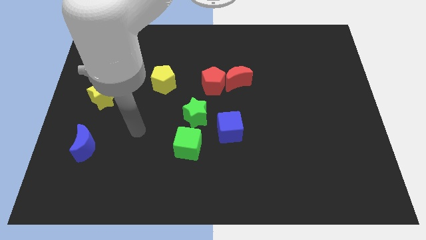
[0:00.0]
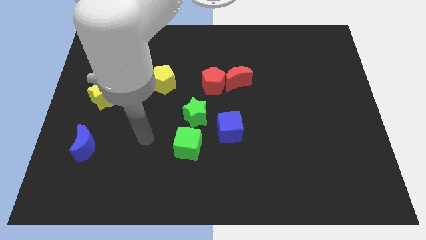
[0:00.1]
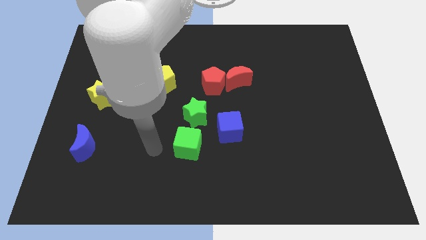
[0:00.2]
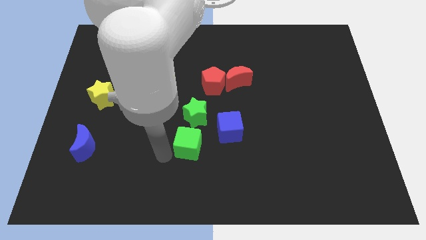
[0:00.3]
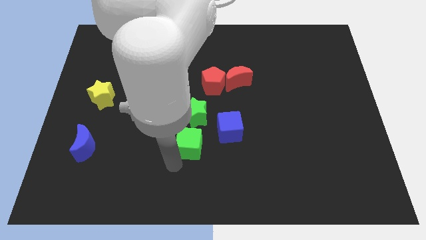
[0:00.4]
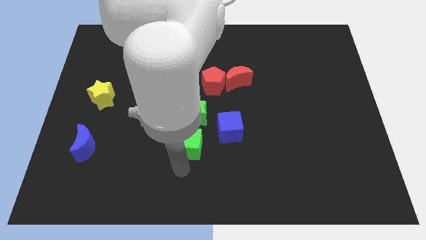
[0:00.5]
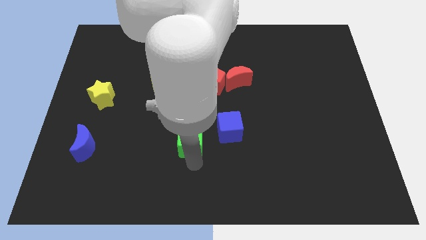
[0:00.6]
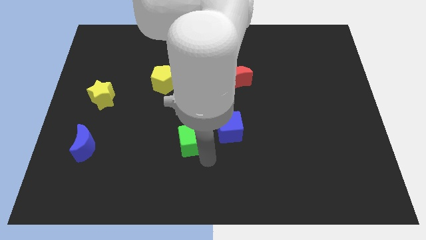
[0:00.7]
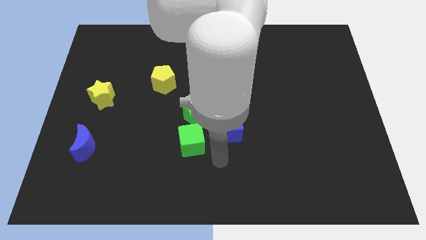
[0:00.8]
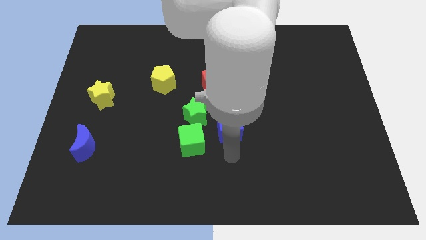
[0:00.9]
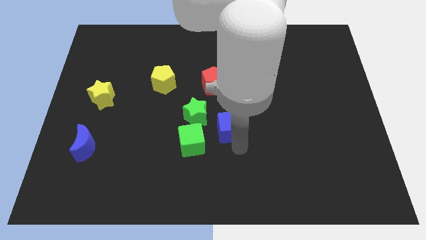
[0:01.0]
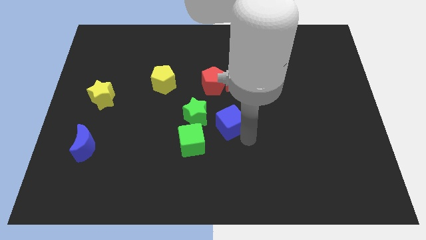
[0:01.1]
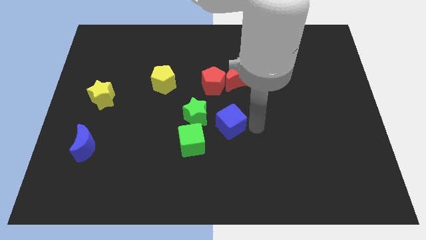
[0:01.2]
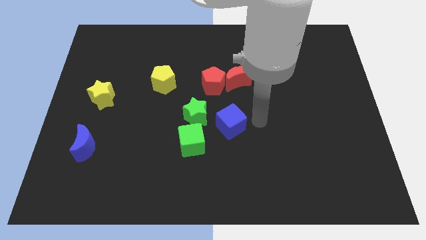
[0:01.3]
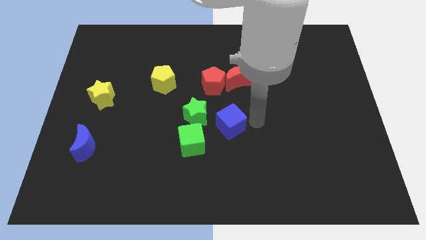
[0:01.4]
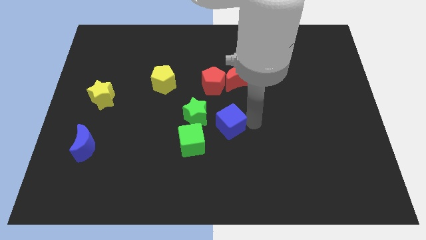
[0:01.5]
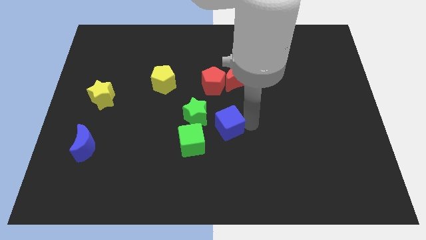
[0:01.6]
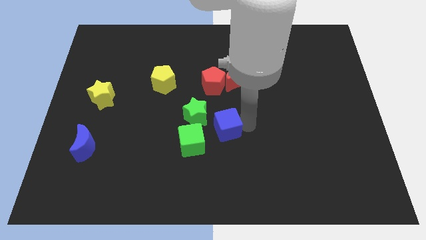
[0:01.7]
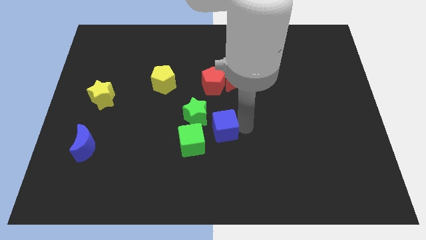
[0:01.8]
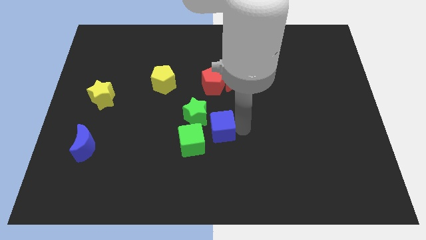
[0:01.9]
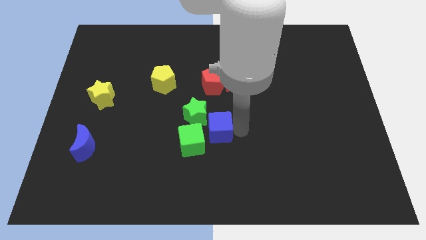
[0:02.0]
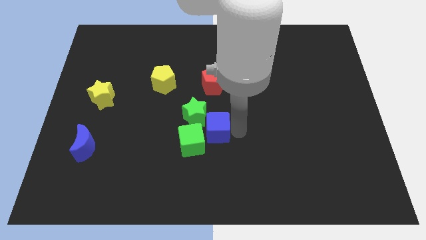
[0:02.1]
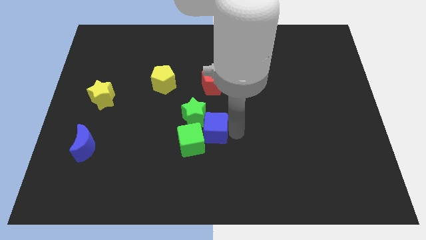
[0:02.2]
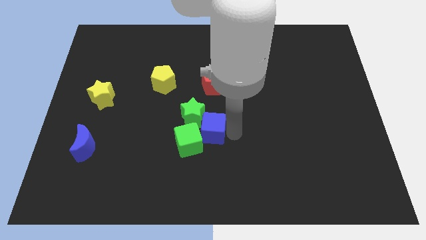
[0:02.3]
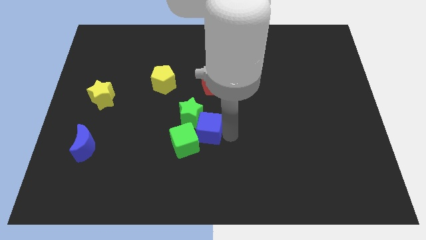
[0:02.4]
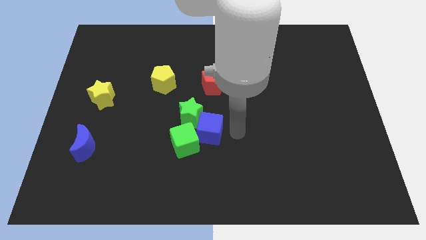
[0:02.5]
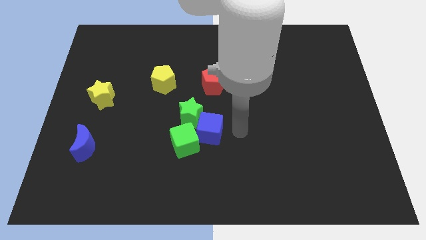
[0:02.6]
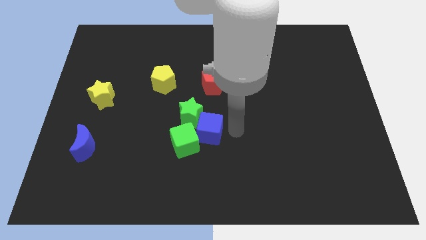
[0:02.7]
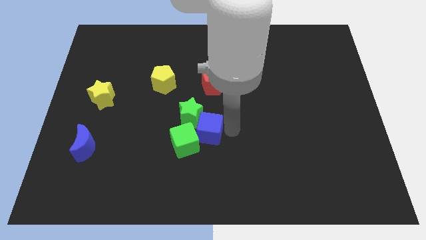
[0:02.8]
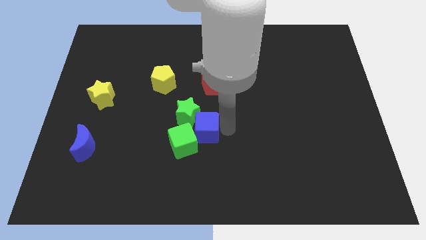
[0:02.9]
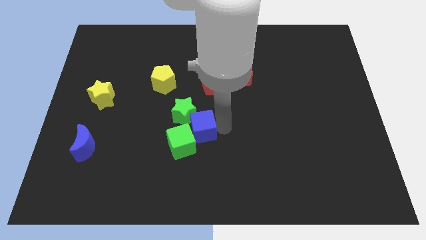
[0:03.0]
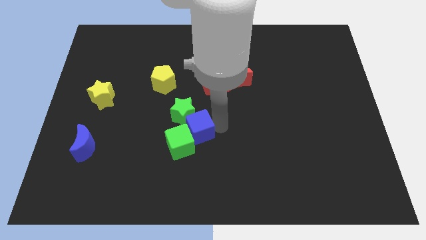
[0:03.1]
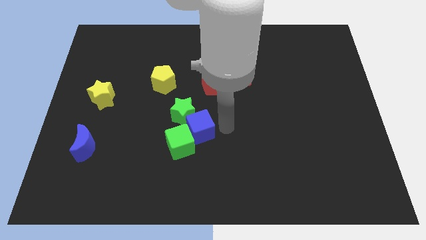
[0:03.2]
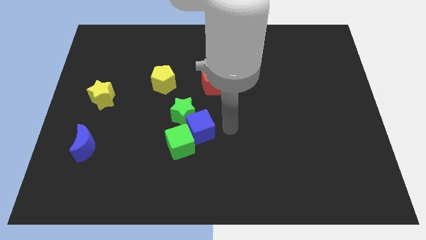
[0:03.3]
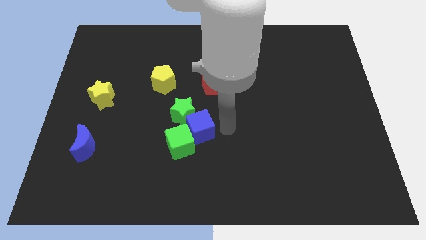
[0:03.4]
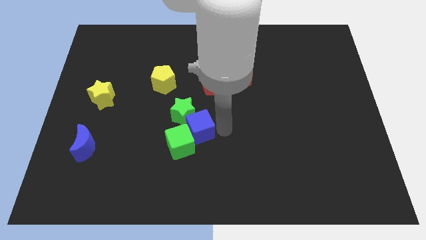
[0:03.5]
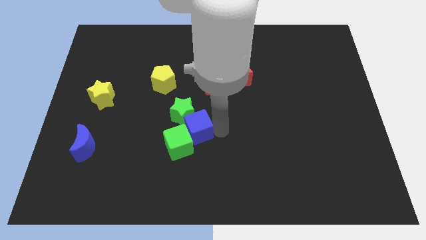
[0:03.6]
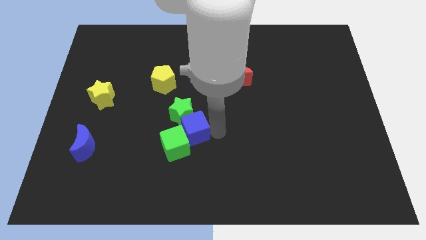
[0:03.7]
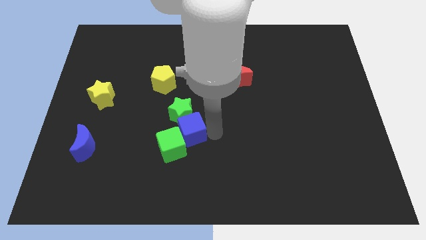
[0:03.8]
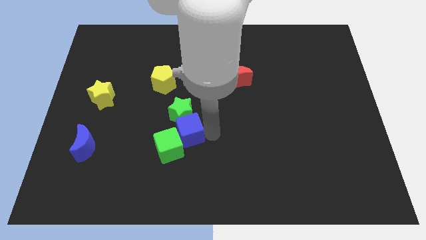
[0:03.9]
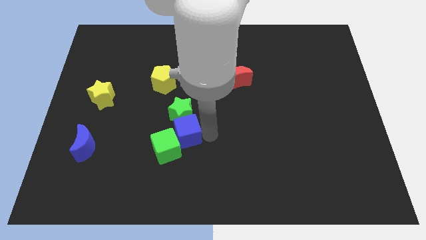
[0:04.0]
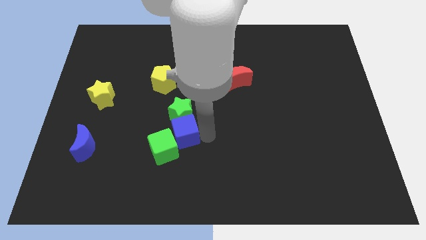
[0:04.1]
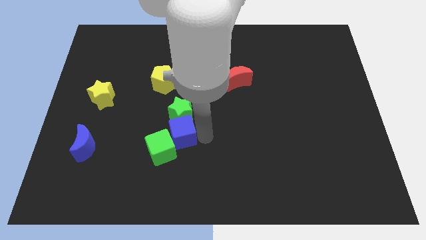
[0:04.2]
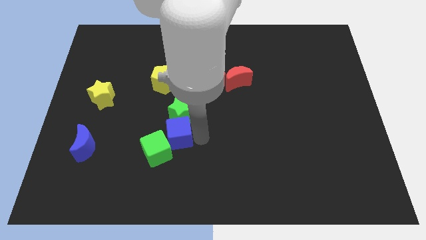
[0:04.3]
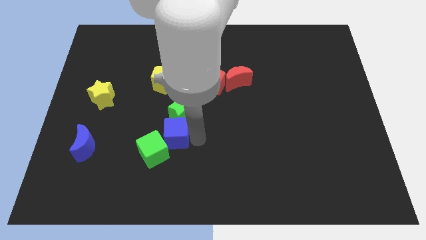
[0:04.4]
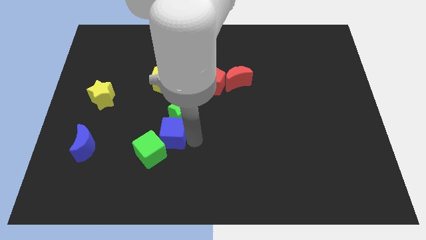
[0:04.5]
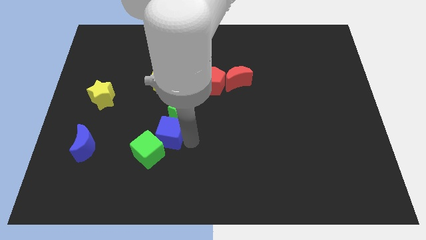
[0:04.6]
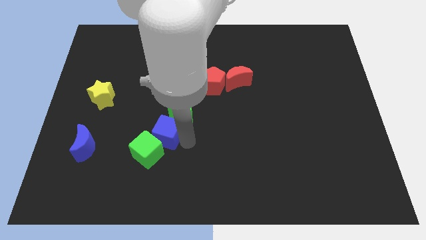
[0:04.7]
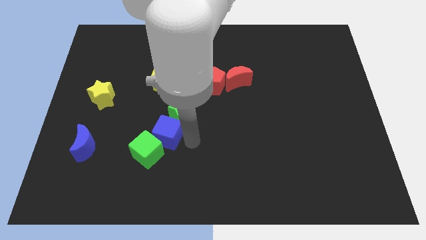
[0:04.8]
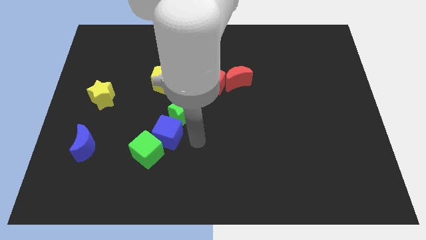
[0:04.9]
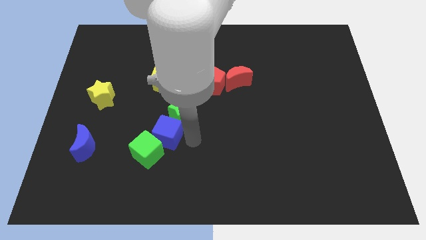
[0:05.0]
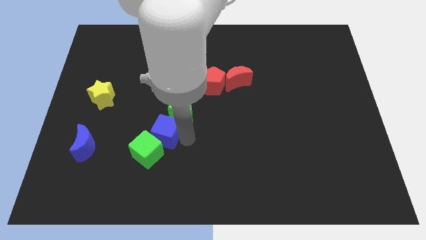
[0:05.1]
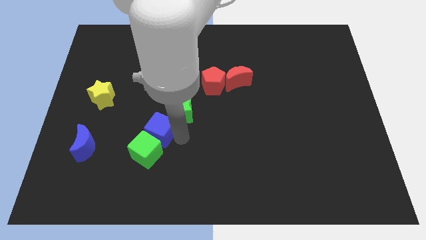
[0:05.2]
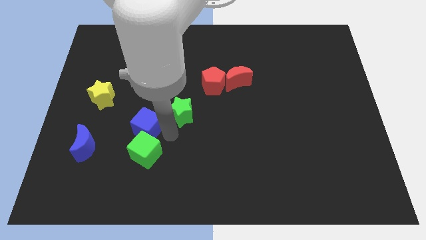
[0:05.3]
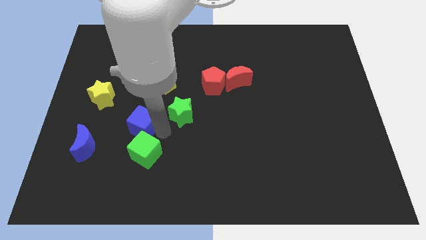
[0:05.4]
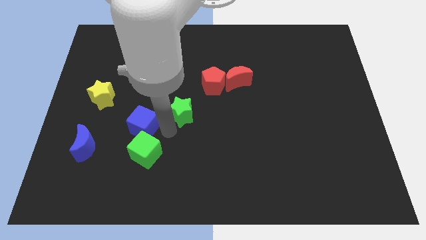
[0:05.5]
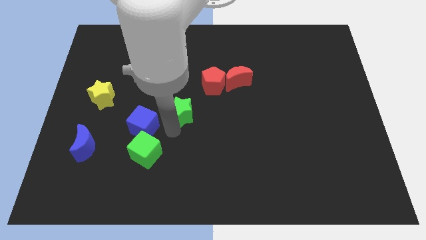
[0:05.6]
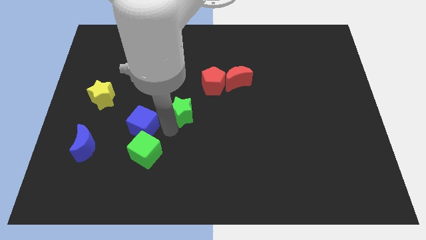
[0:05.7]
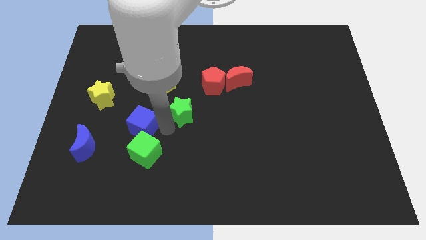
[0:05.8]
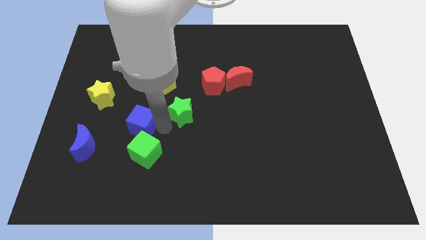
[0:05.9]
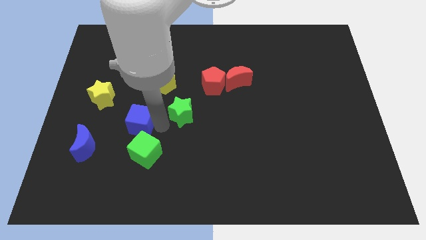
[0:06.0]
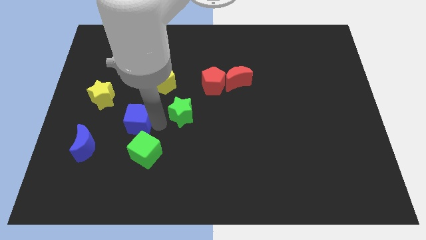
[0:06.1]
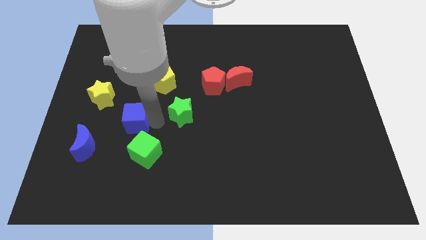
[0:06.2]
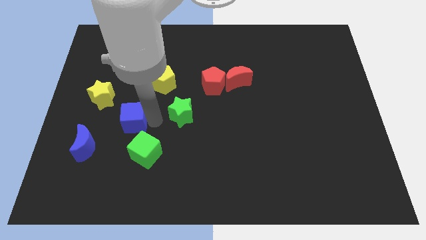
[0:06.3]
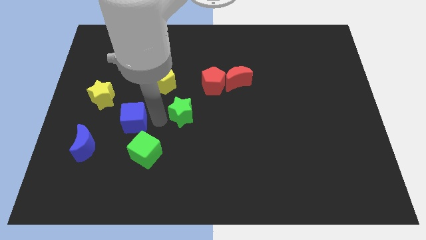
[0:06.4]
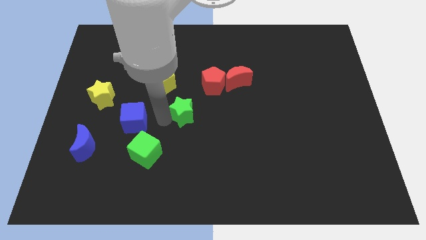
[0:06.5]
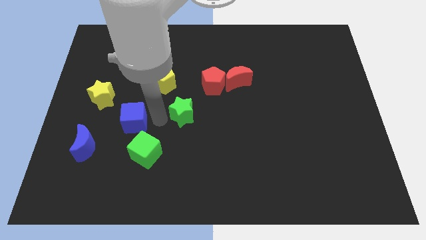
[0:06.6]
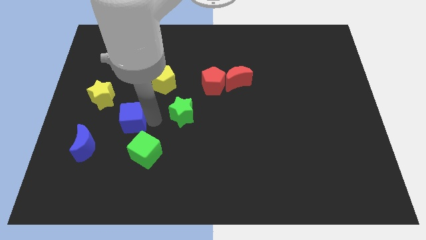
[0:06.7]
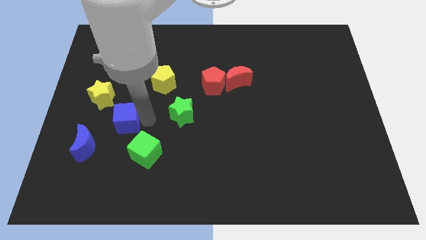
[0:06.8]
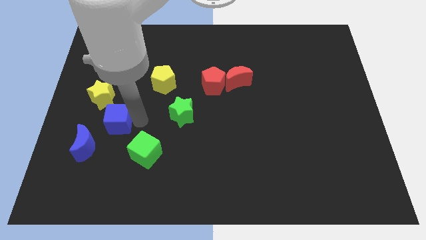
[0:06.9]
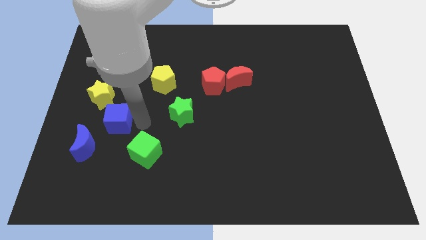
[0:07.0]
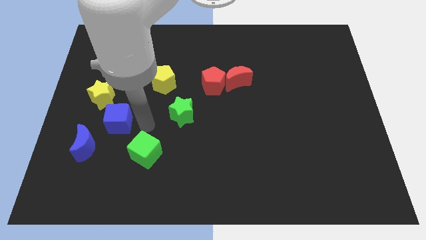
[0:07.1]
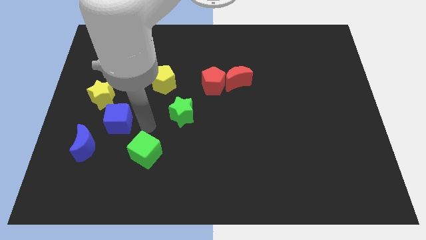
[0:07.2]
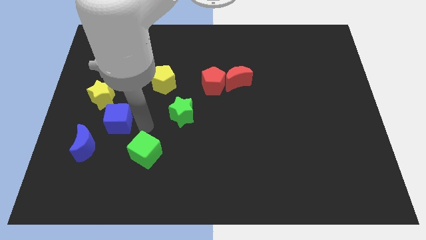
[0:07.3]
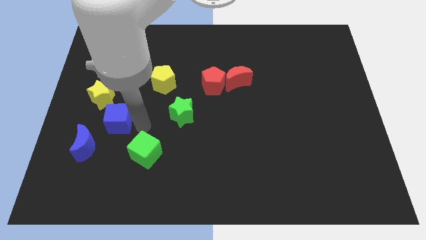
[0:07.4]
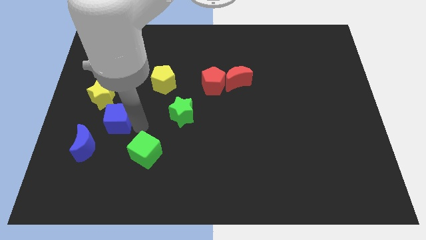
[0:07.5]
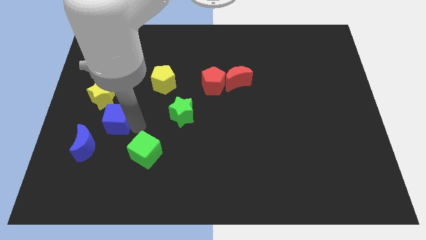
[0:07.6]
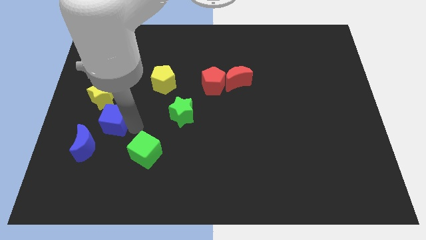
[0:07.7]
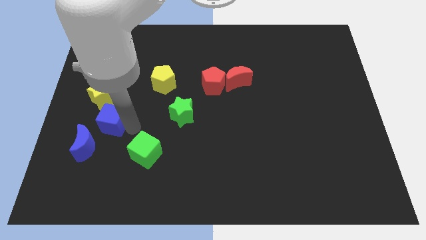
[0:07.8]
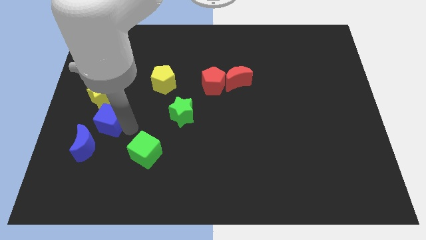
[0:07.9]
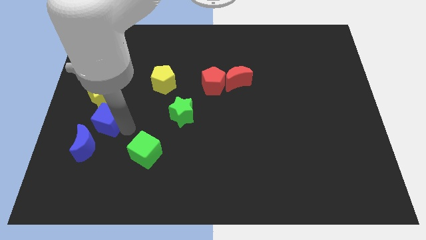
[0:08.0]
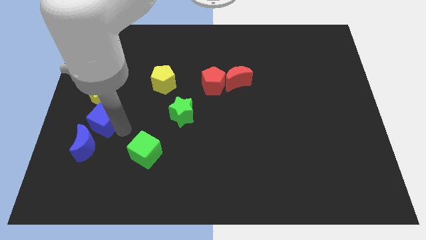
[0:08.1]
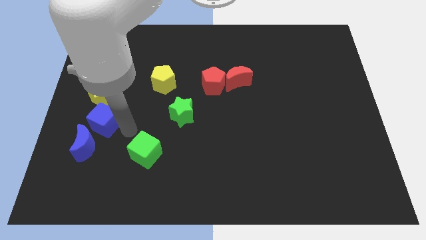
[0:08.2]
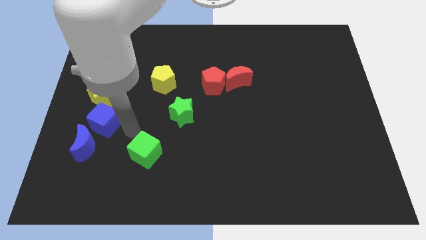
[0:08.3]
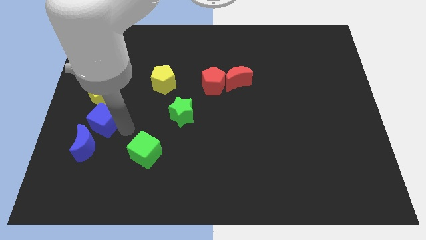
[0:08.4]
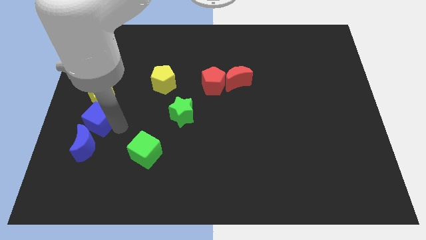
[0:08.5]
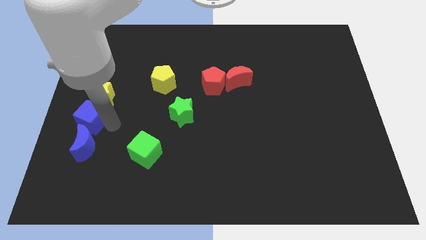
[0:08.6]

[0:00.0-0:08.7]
push the blue cube to the left side
